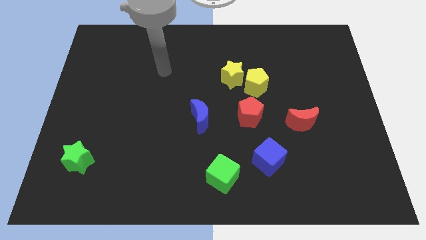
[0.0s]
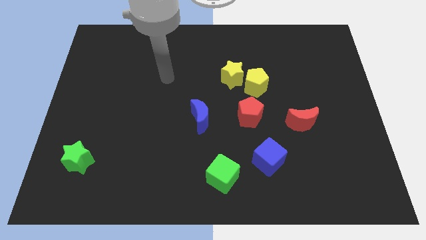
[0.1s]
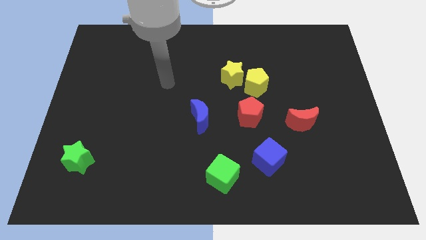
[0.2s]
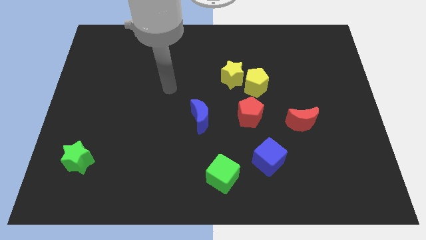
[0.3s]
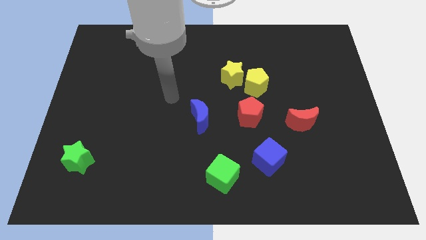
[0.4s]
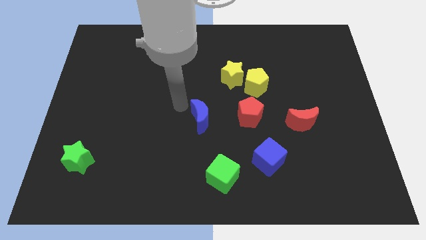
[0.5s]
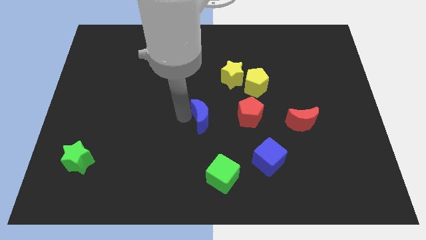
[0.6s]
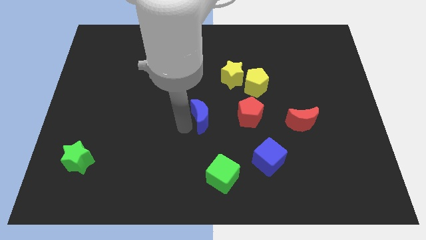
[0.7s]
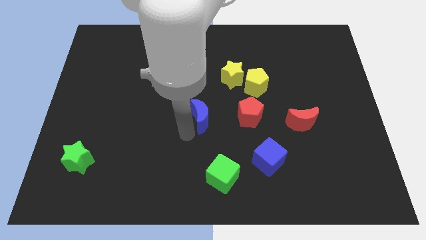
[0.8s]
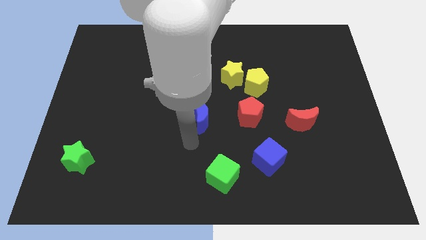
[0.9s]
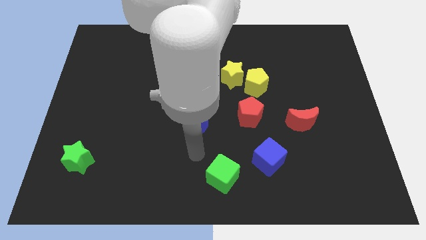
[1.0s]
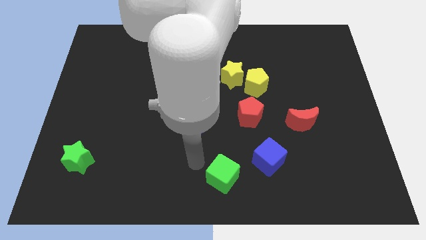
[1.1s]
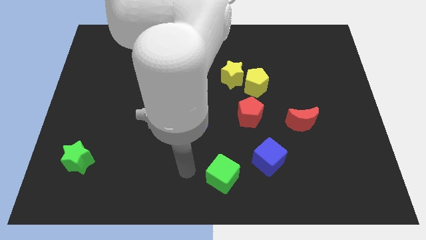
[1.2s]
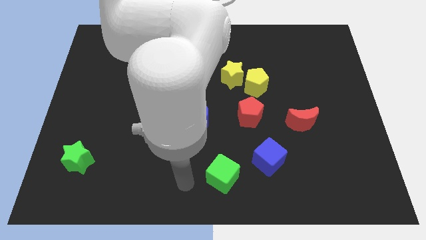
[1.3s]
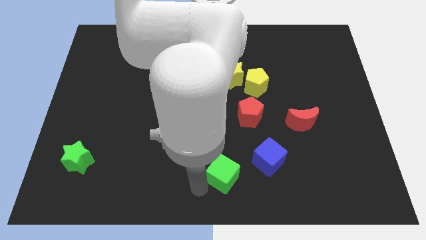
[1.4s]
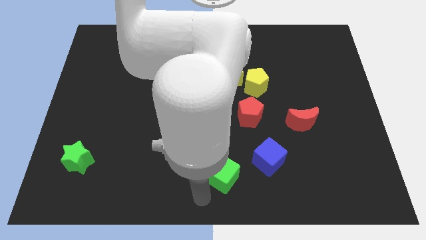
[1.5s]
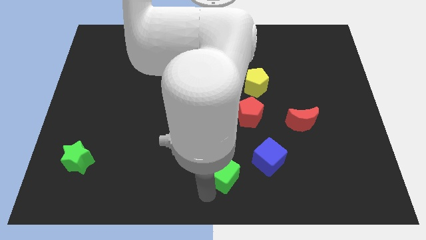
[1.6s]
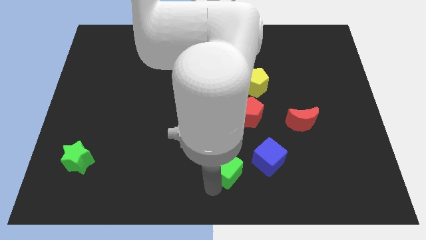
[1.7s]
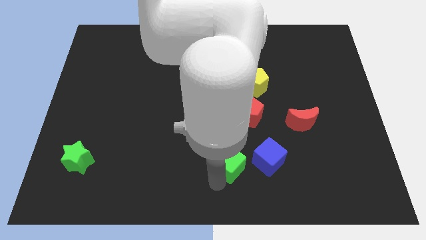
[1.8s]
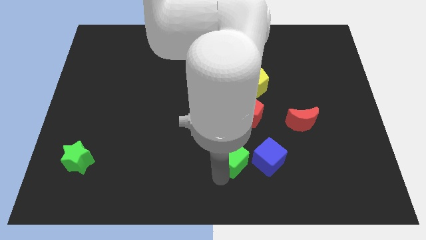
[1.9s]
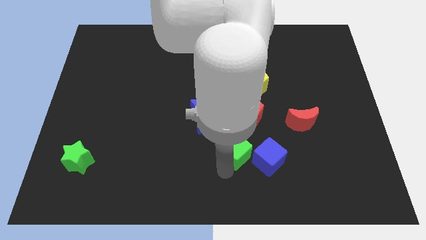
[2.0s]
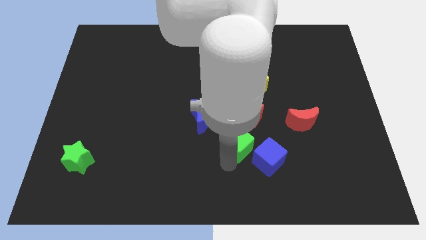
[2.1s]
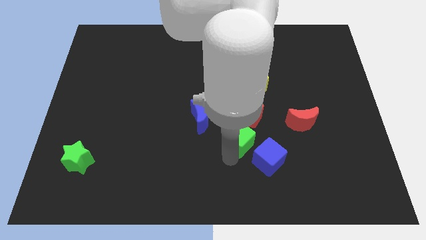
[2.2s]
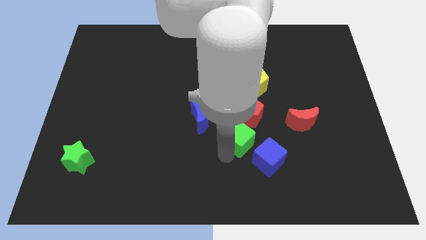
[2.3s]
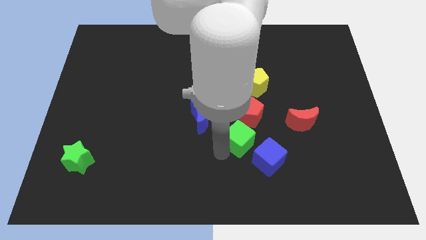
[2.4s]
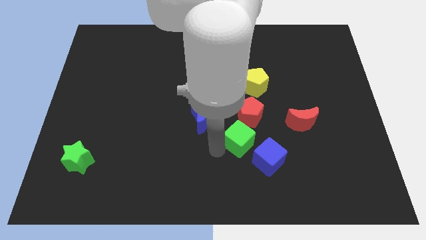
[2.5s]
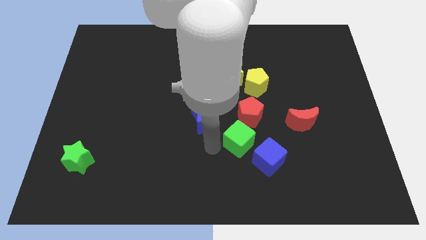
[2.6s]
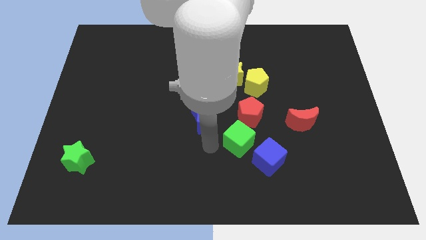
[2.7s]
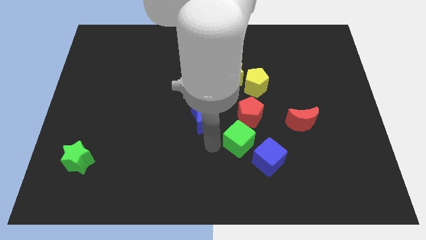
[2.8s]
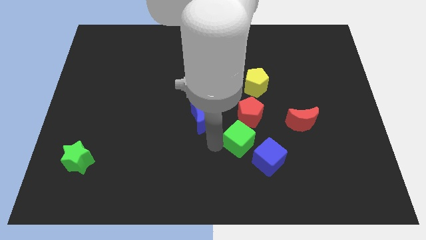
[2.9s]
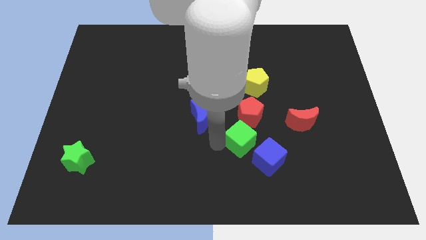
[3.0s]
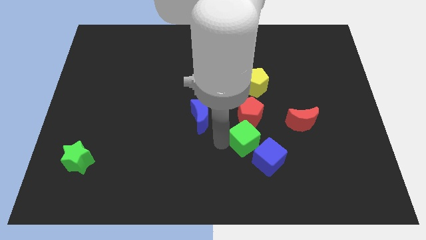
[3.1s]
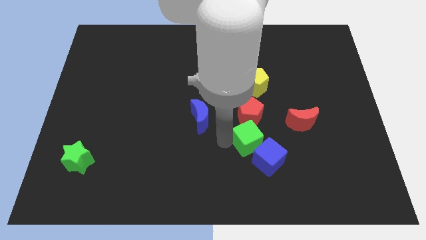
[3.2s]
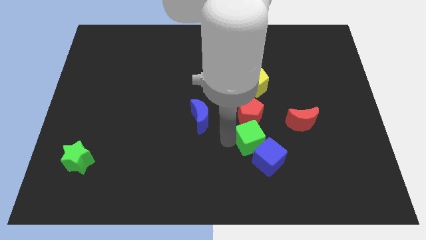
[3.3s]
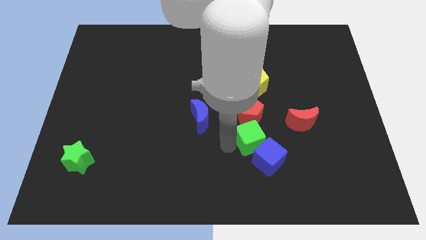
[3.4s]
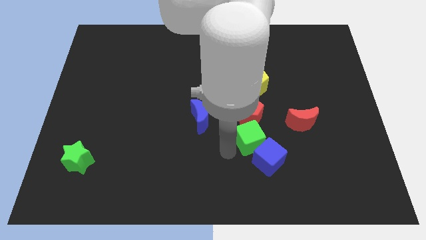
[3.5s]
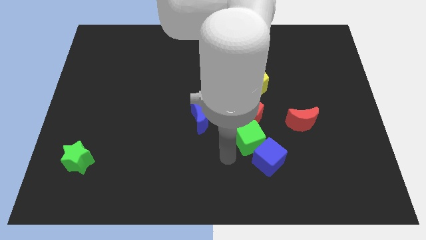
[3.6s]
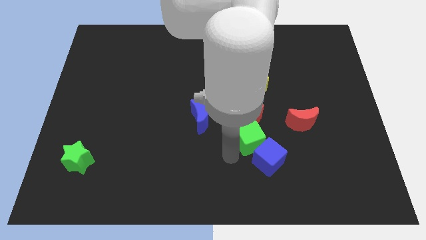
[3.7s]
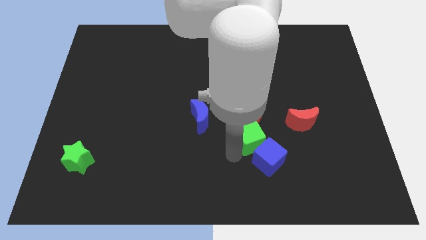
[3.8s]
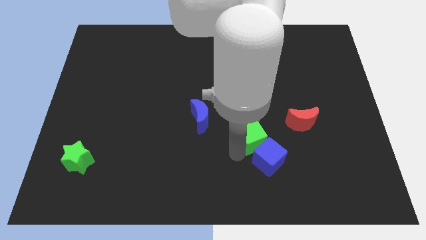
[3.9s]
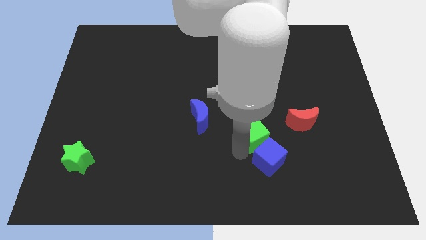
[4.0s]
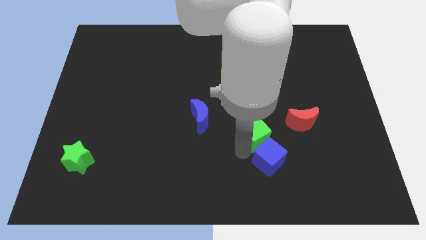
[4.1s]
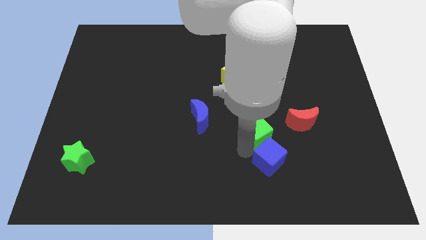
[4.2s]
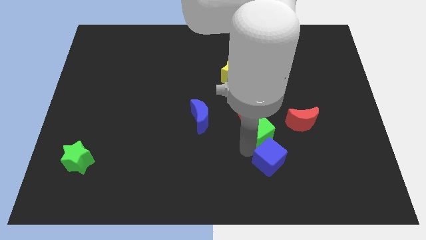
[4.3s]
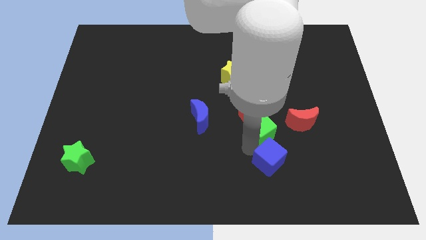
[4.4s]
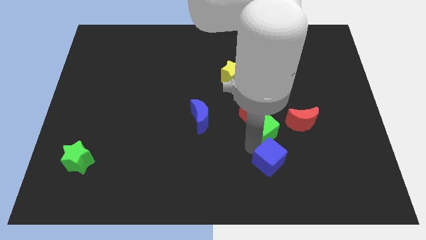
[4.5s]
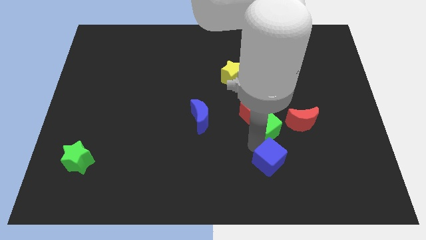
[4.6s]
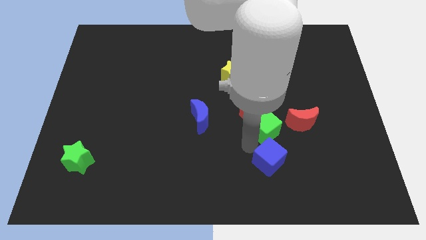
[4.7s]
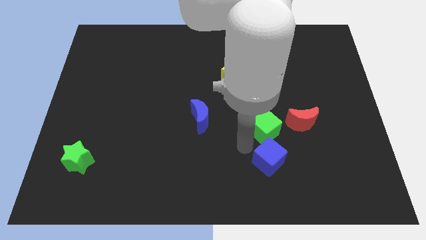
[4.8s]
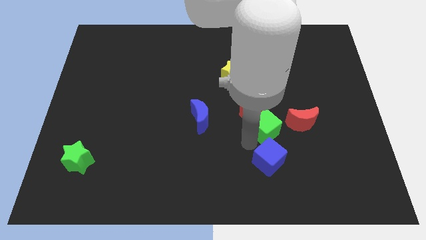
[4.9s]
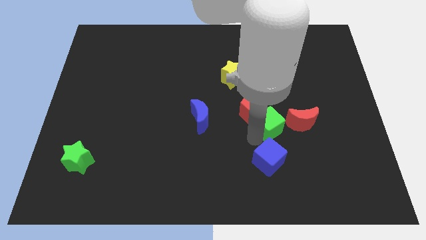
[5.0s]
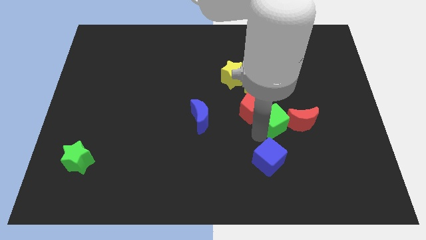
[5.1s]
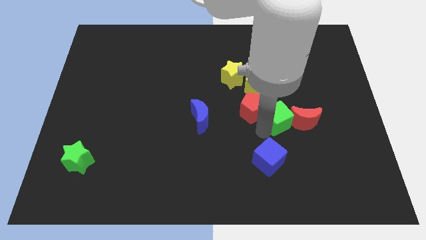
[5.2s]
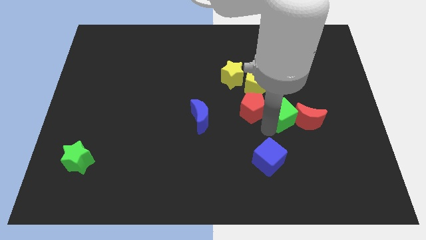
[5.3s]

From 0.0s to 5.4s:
slide the green cube diagonally upwards and to the right

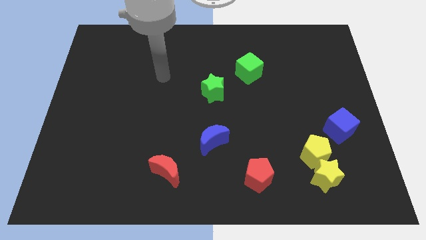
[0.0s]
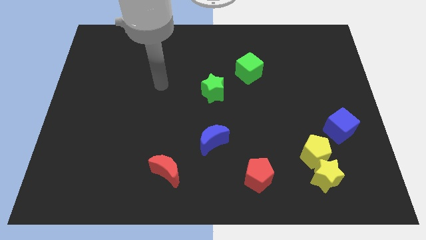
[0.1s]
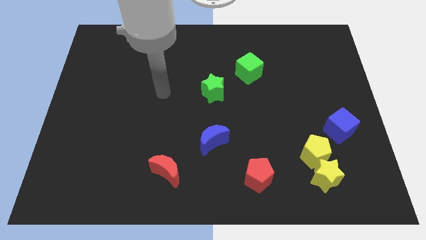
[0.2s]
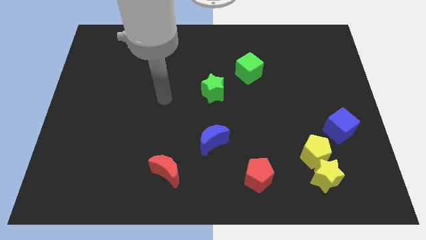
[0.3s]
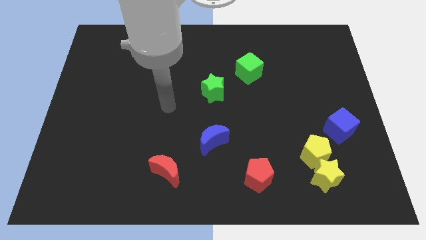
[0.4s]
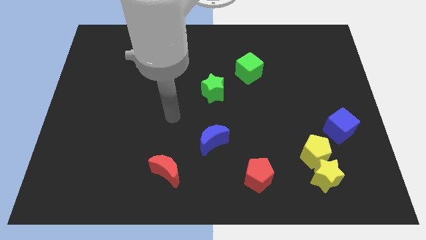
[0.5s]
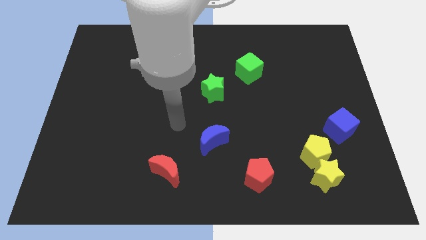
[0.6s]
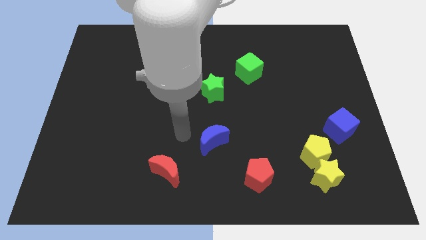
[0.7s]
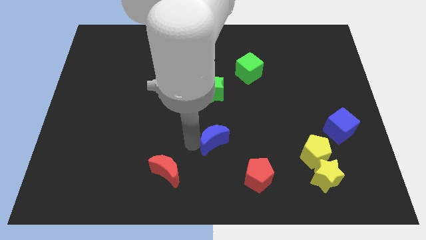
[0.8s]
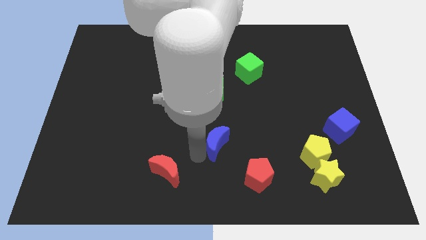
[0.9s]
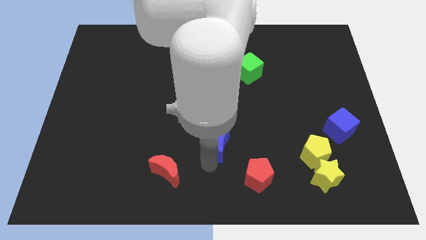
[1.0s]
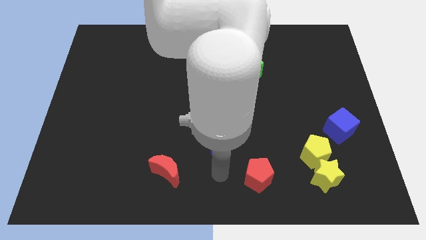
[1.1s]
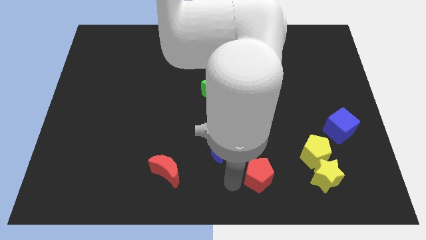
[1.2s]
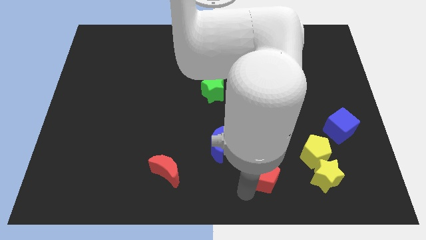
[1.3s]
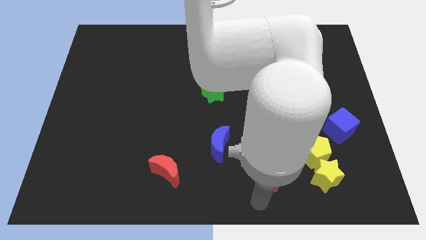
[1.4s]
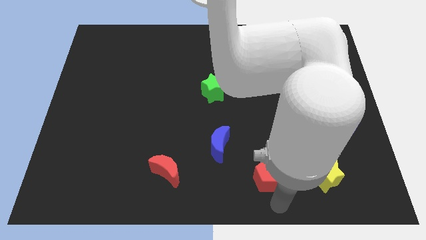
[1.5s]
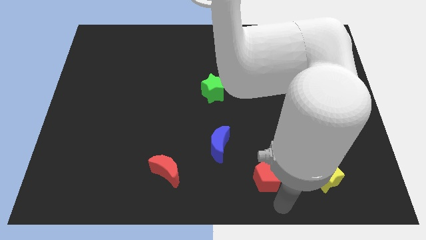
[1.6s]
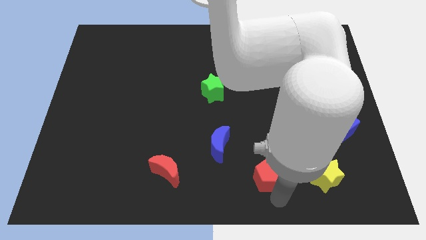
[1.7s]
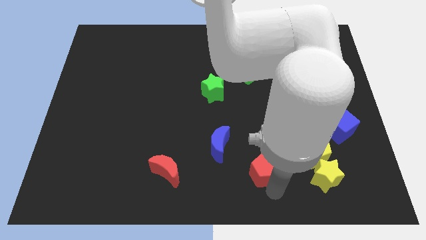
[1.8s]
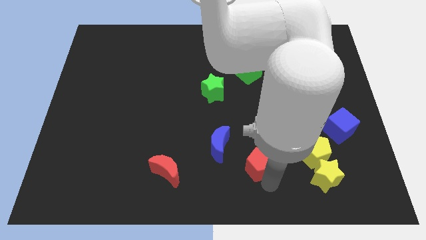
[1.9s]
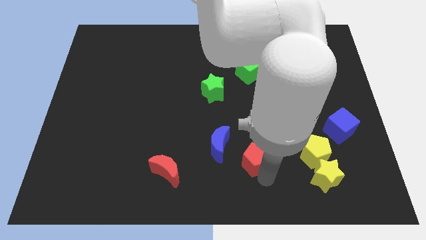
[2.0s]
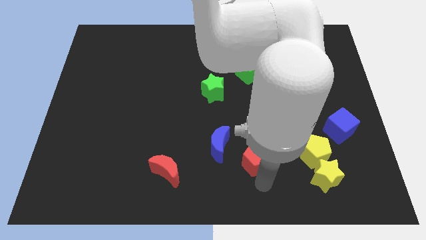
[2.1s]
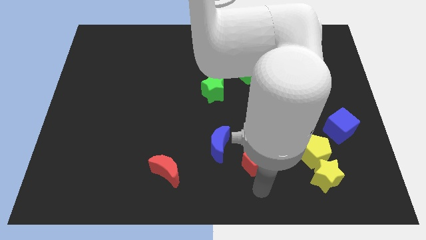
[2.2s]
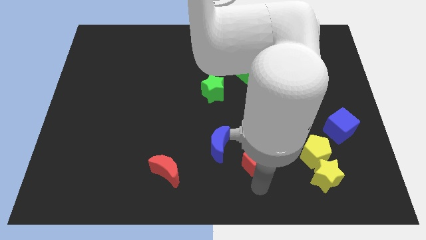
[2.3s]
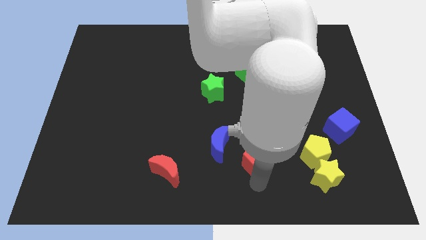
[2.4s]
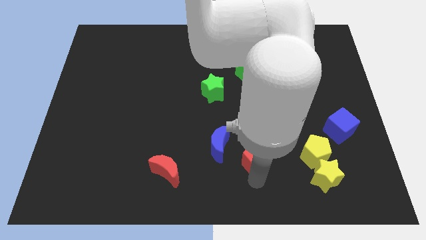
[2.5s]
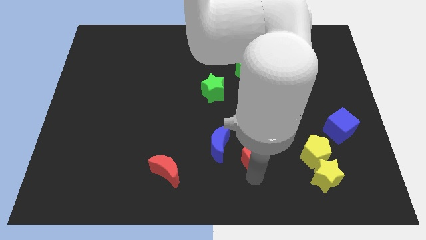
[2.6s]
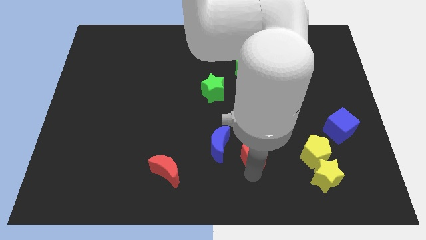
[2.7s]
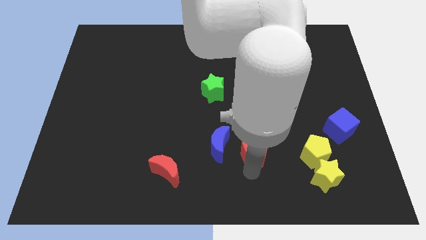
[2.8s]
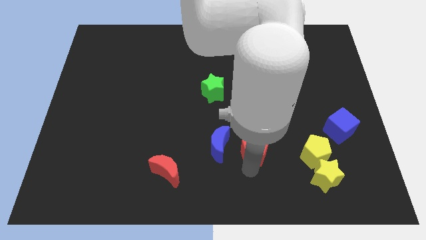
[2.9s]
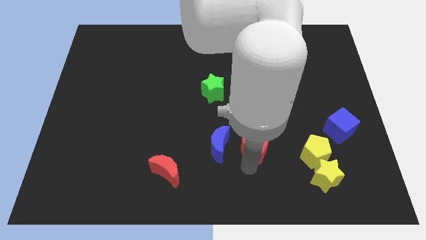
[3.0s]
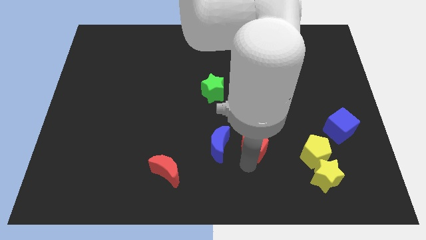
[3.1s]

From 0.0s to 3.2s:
slightly push the red pentagon up
